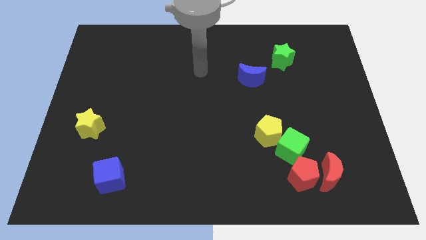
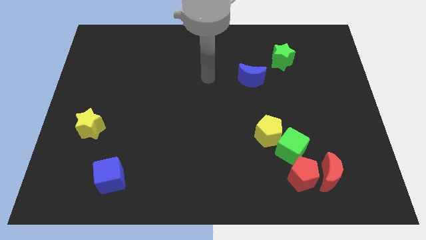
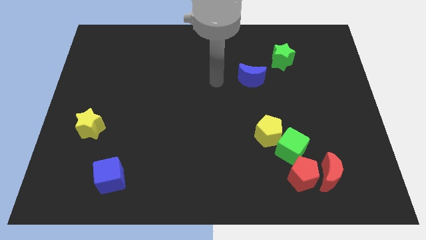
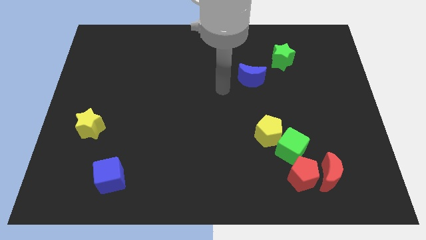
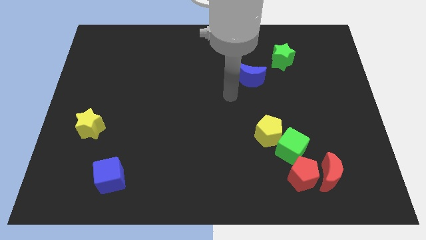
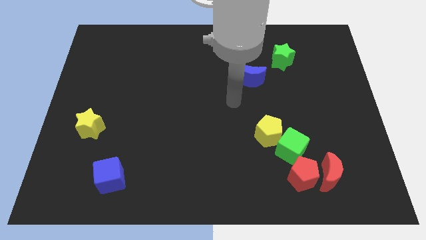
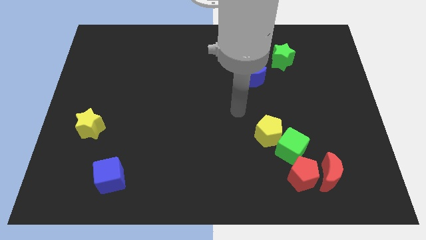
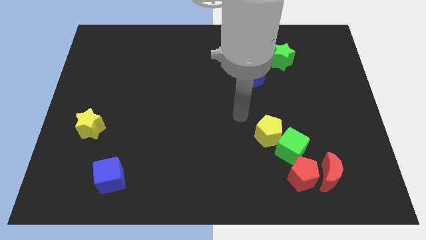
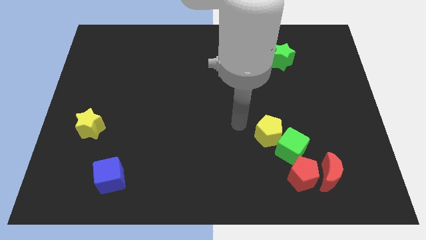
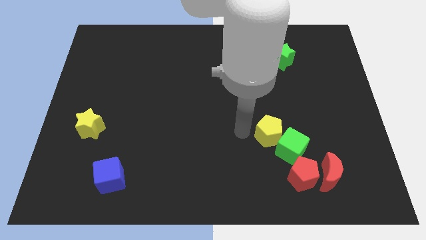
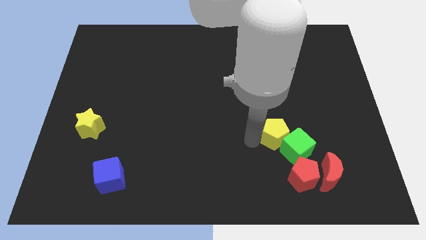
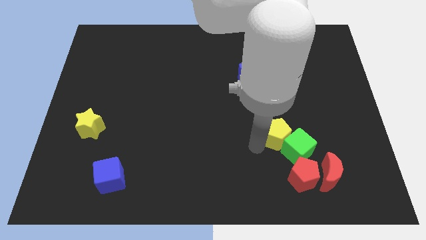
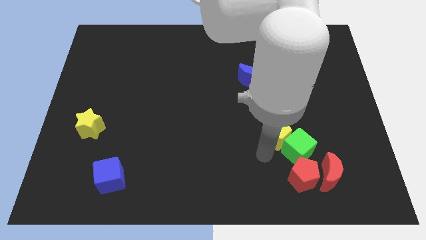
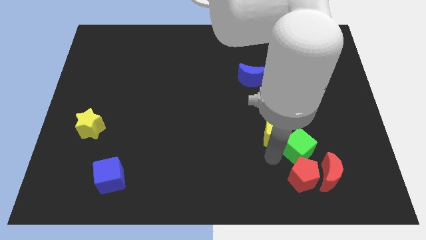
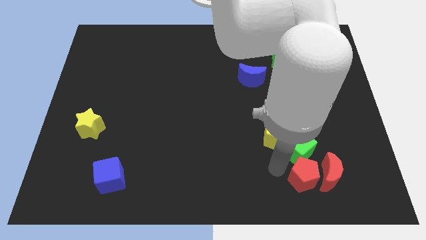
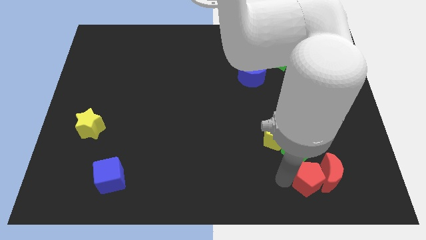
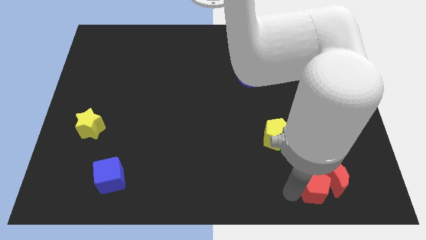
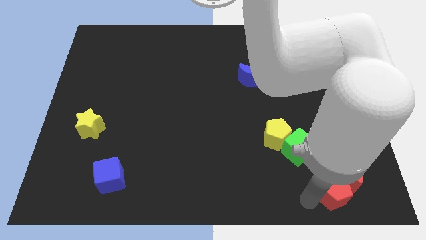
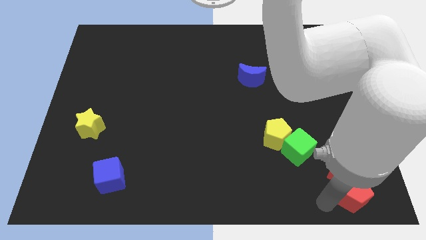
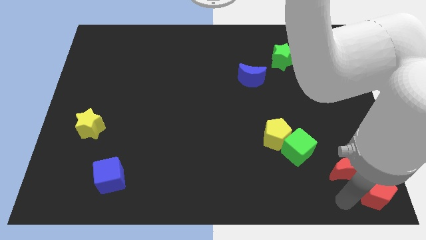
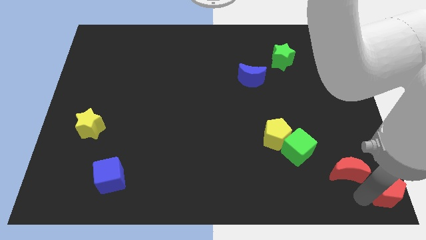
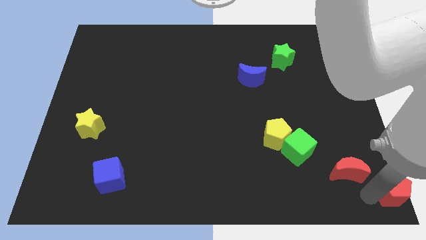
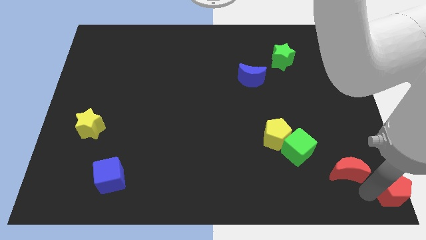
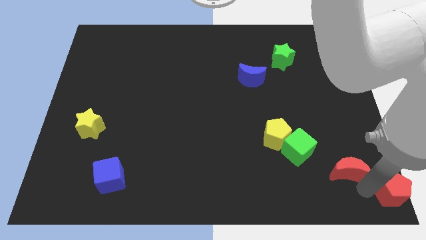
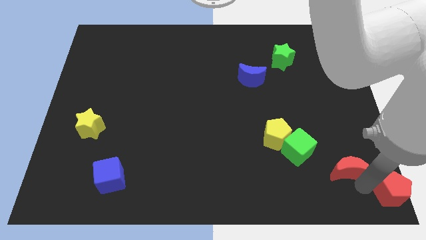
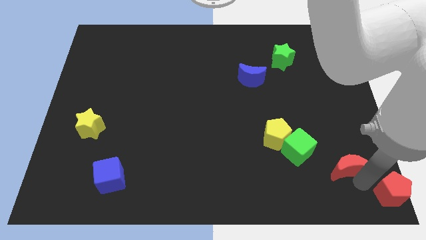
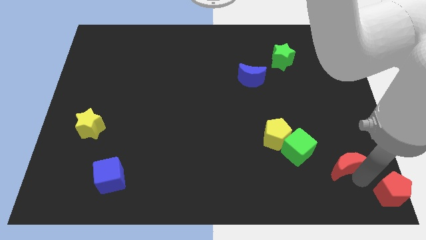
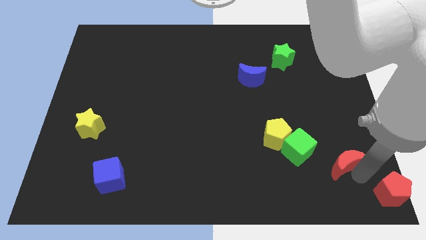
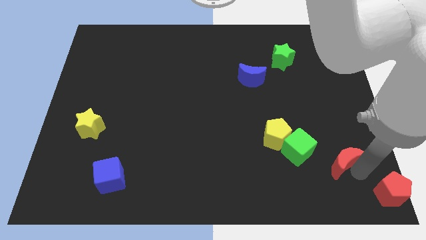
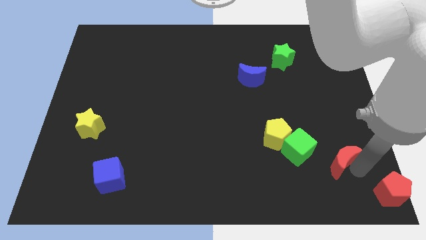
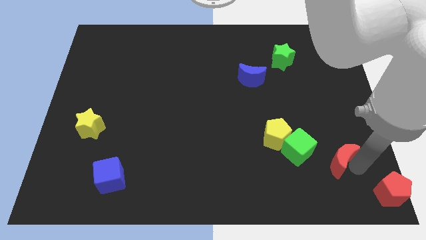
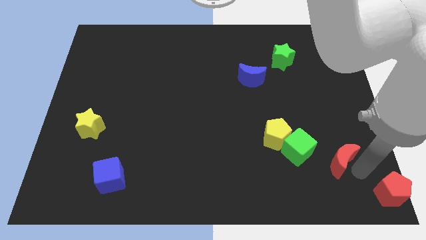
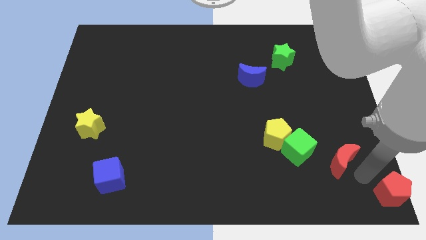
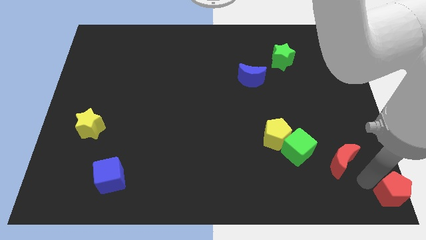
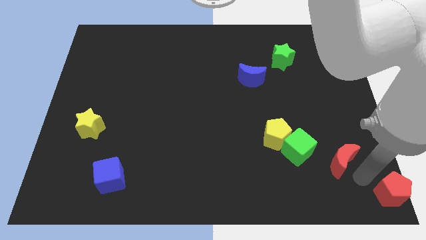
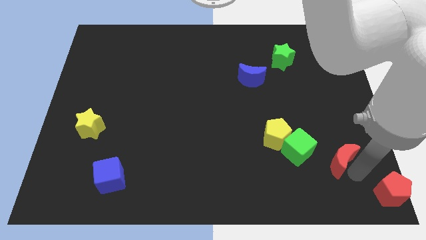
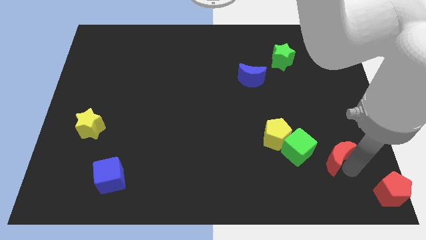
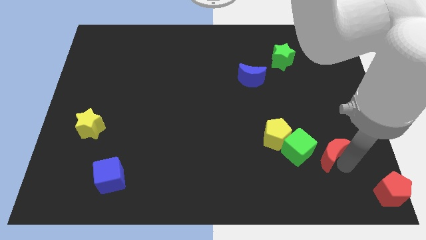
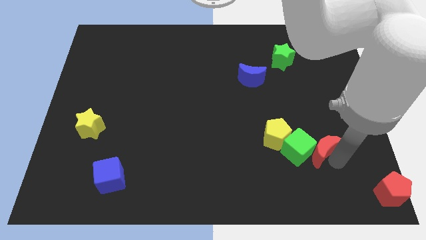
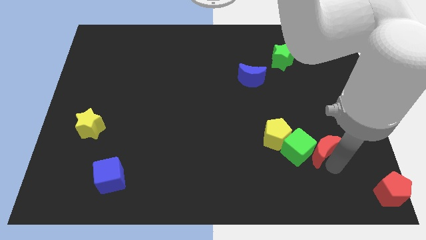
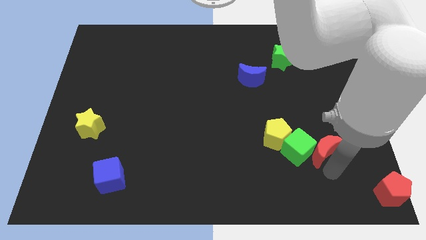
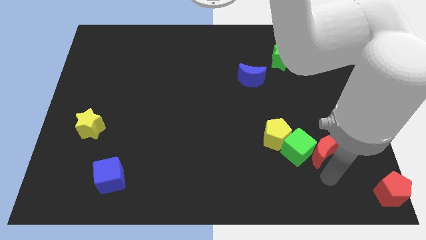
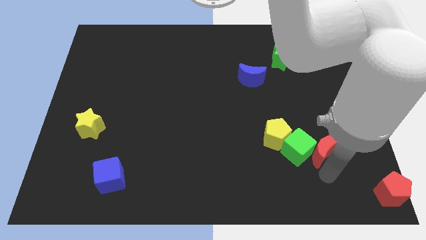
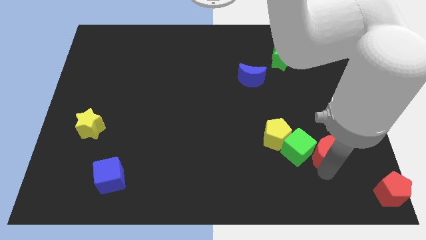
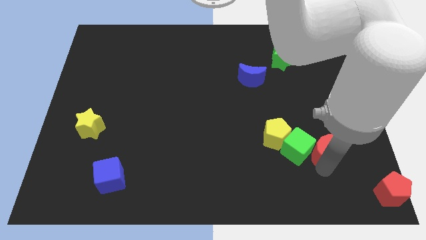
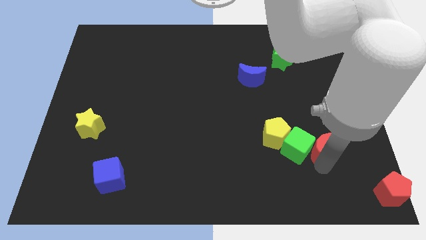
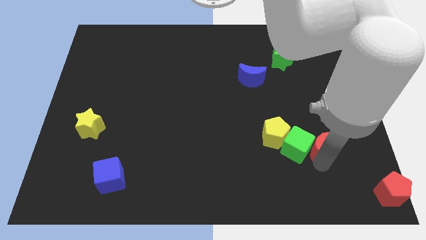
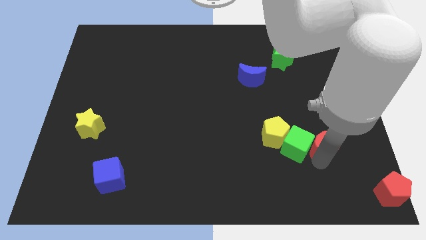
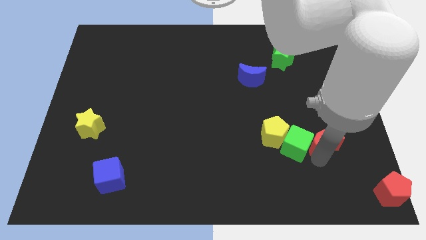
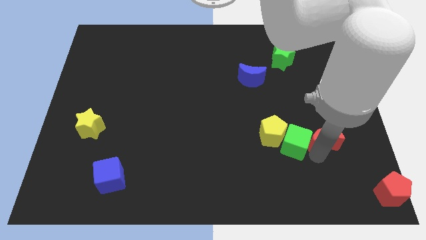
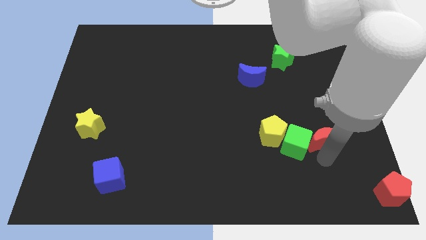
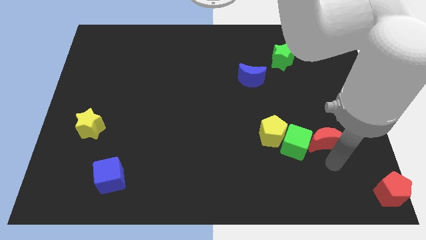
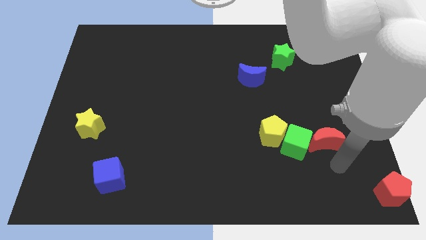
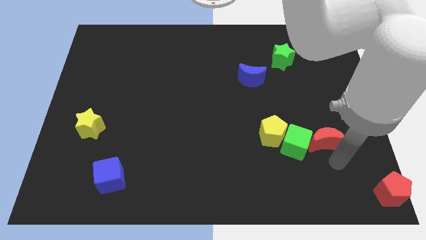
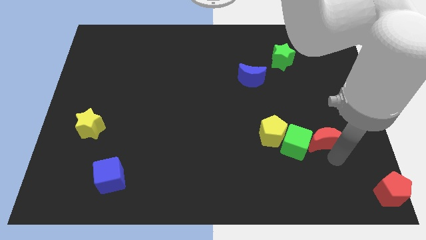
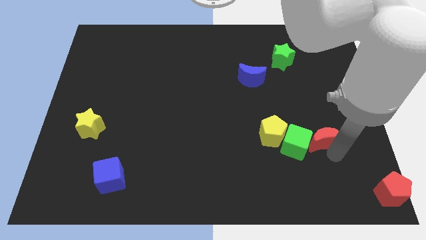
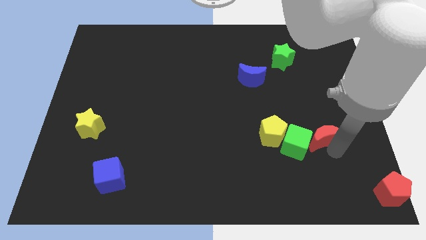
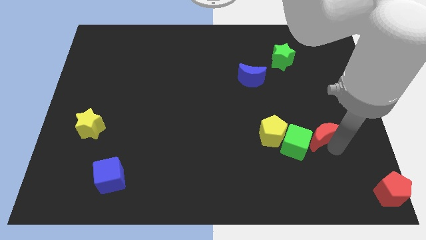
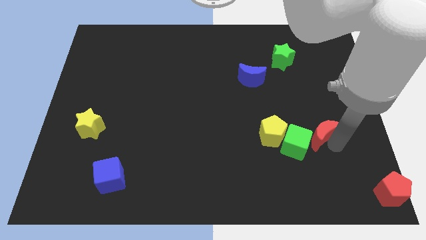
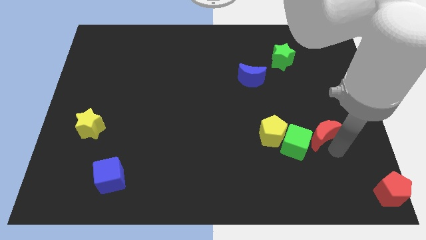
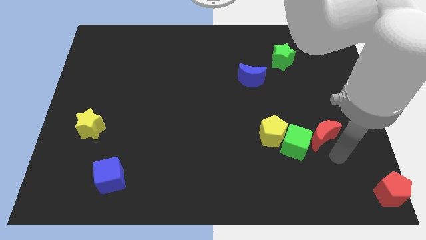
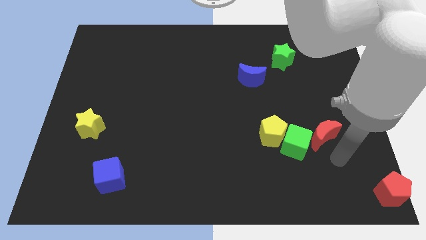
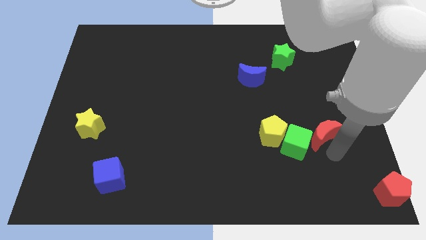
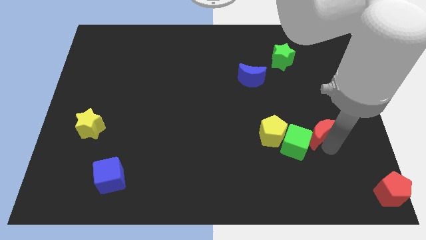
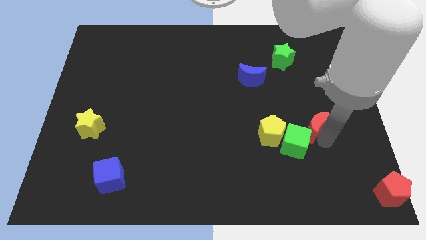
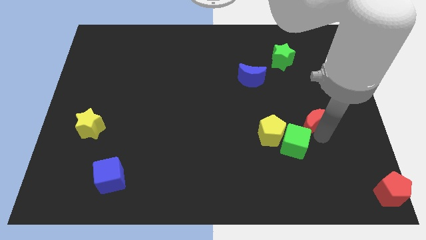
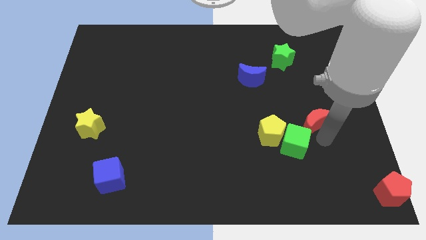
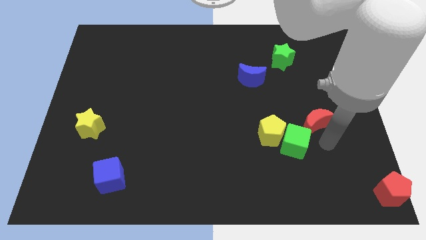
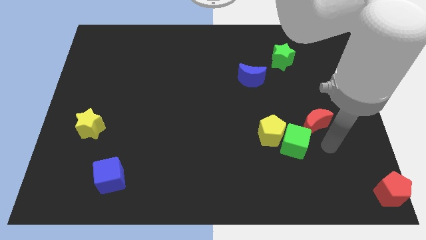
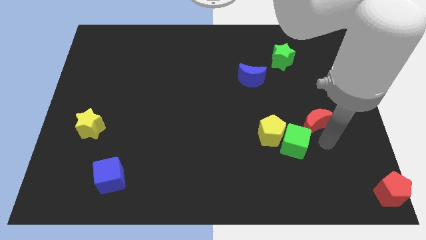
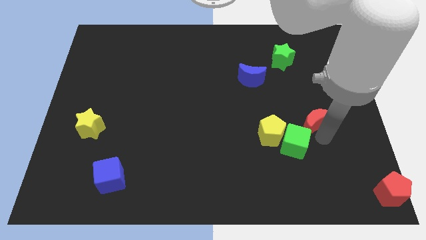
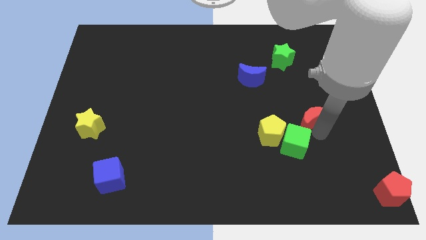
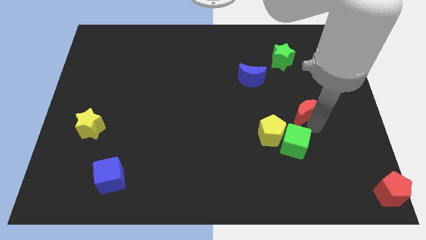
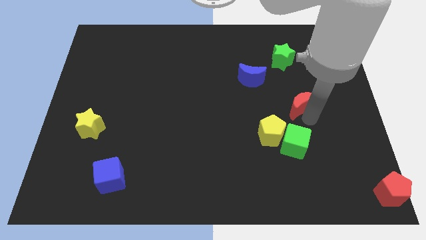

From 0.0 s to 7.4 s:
push the red moon below the green star
